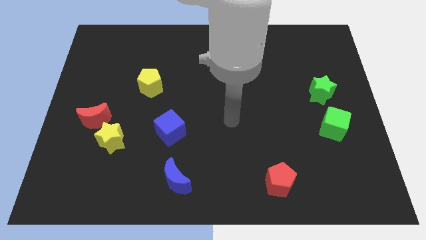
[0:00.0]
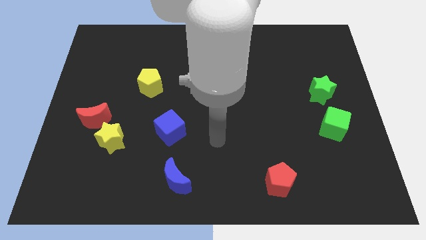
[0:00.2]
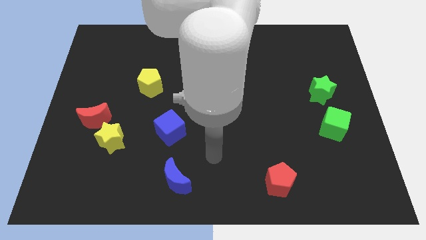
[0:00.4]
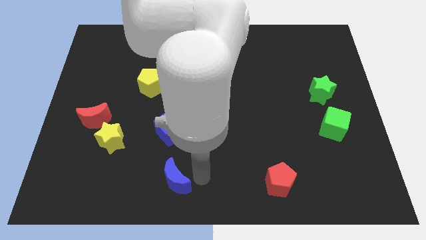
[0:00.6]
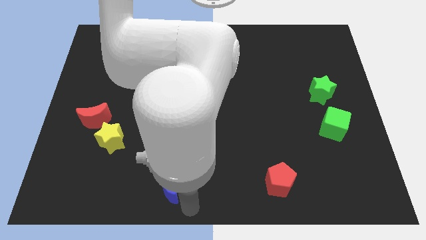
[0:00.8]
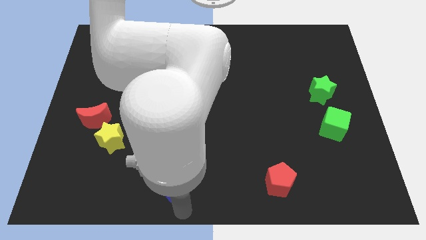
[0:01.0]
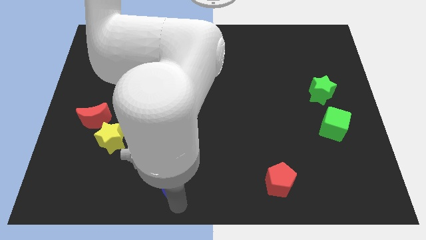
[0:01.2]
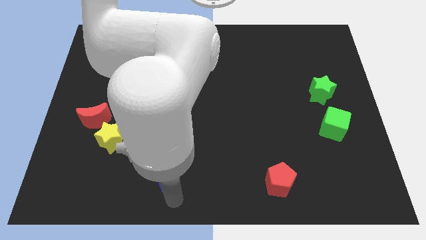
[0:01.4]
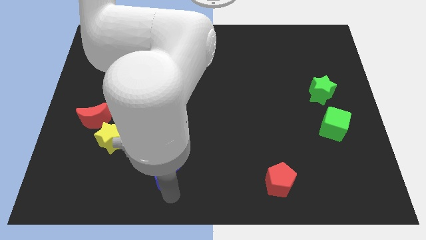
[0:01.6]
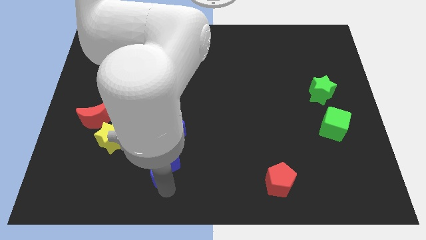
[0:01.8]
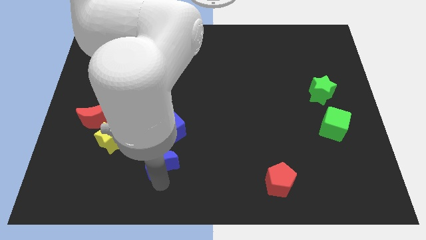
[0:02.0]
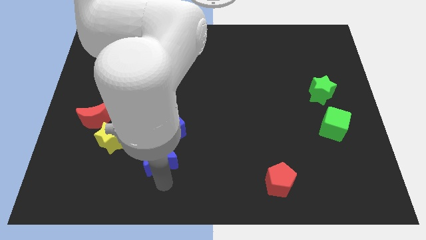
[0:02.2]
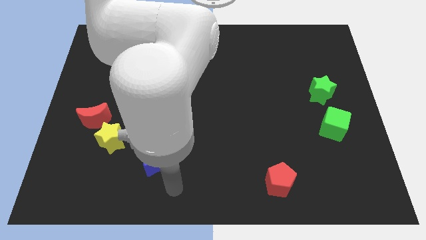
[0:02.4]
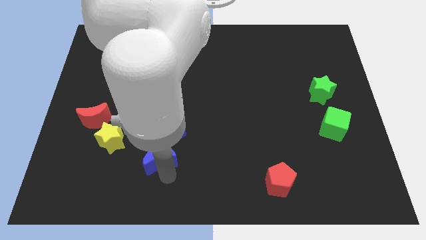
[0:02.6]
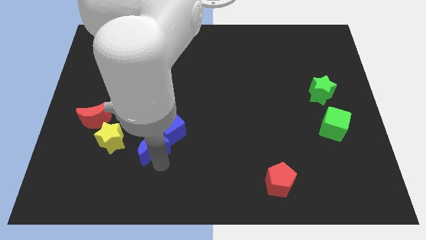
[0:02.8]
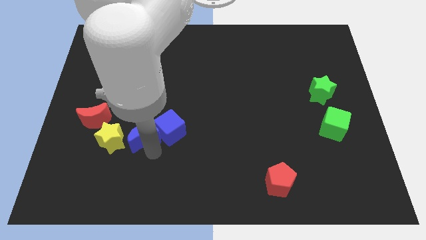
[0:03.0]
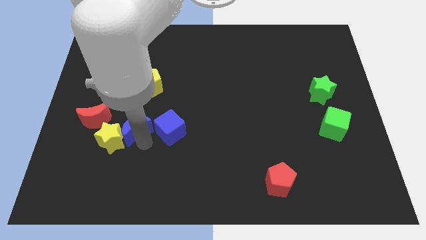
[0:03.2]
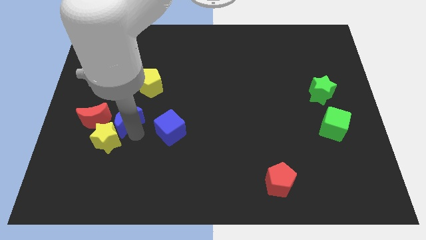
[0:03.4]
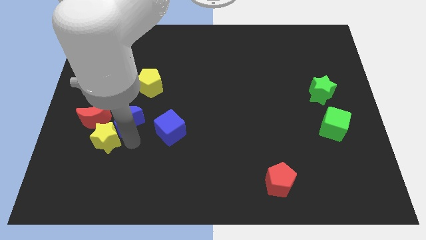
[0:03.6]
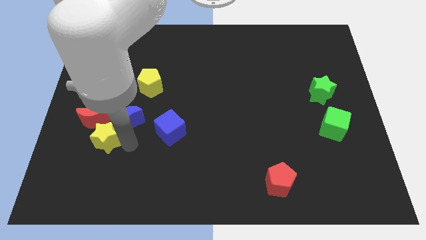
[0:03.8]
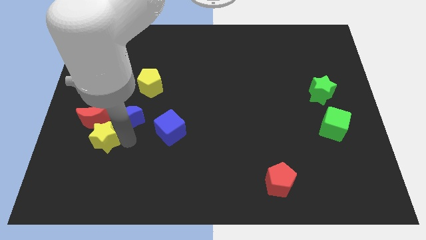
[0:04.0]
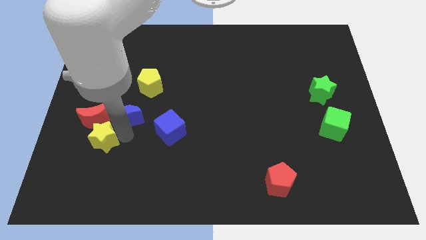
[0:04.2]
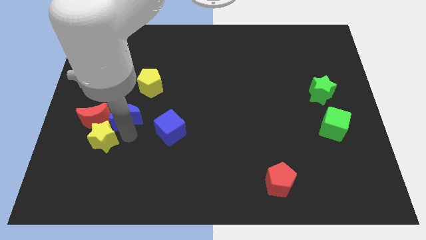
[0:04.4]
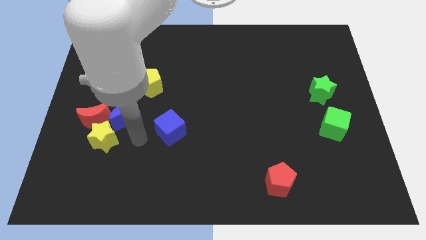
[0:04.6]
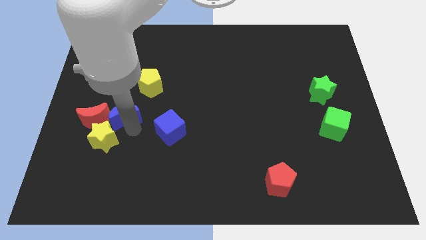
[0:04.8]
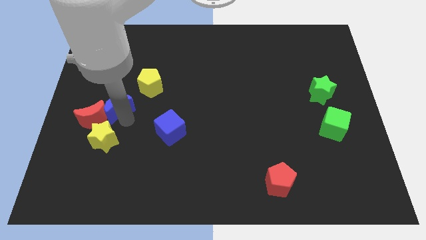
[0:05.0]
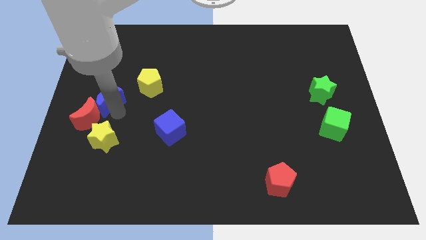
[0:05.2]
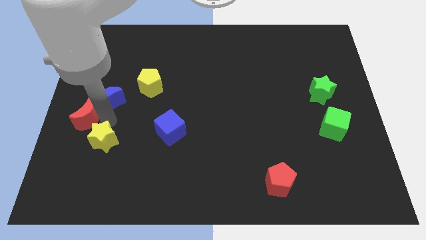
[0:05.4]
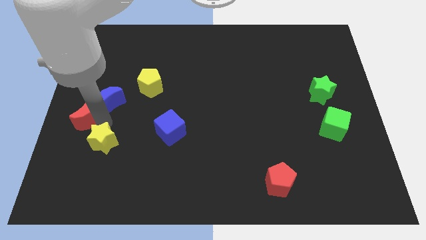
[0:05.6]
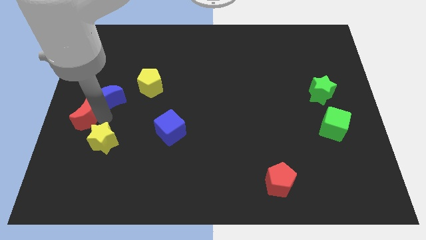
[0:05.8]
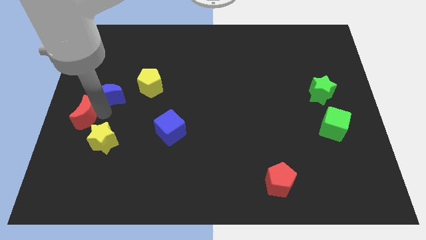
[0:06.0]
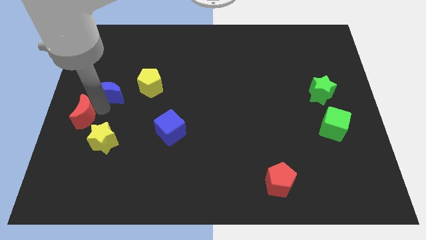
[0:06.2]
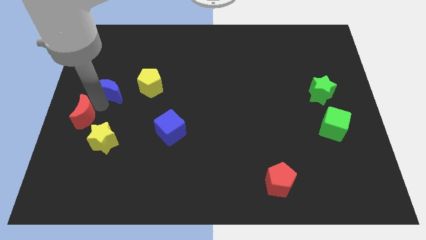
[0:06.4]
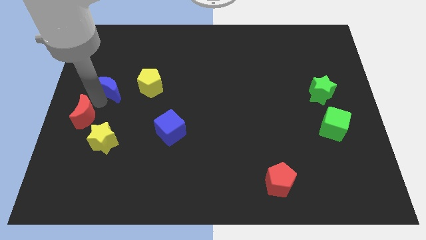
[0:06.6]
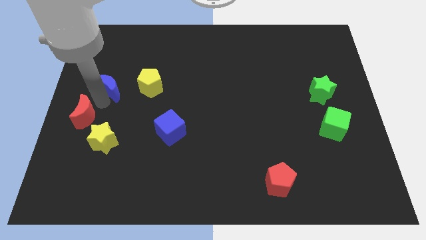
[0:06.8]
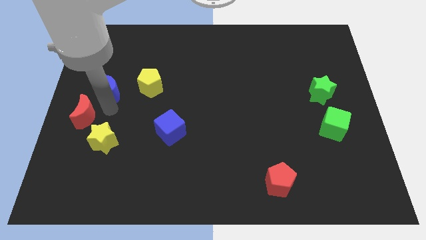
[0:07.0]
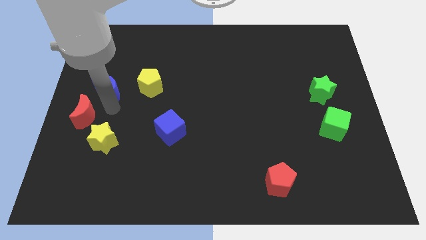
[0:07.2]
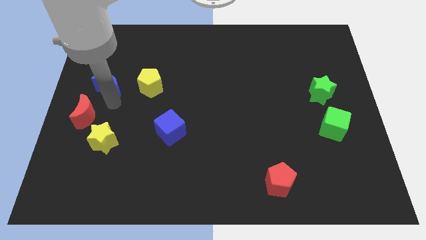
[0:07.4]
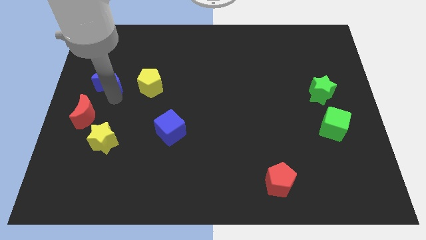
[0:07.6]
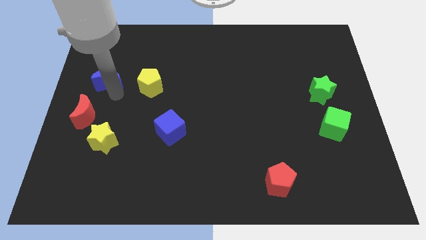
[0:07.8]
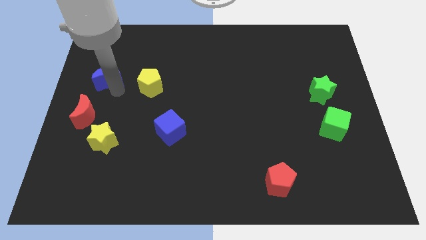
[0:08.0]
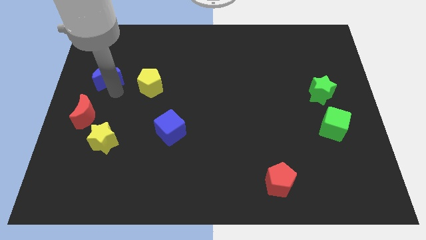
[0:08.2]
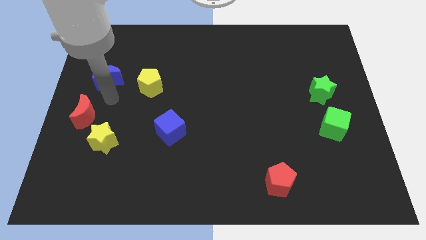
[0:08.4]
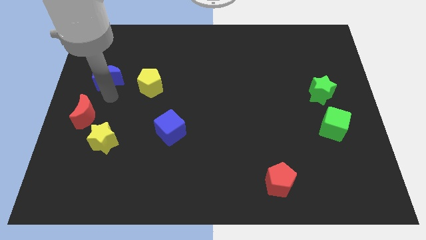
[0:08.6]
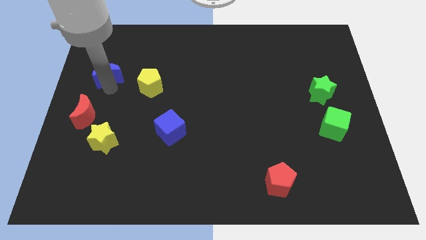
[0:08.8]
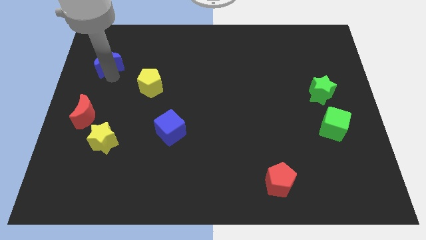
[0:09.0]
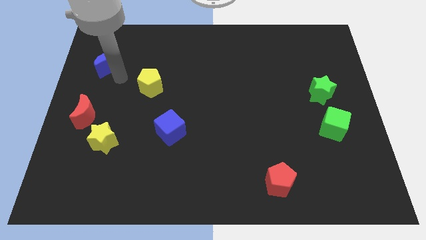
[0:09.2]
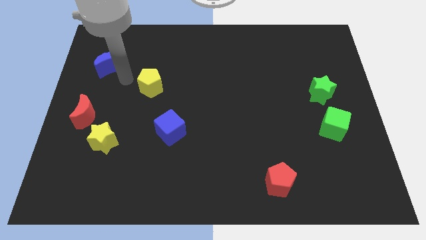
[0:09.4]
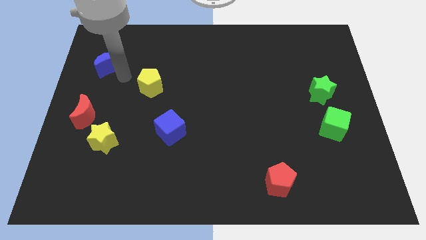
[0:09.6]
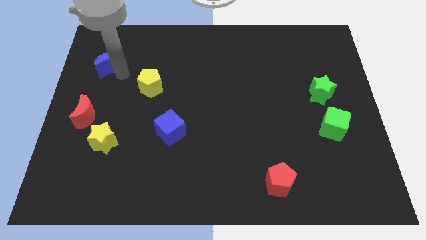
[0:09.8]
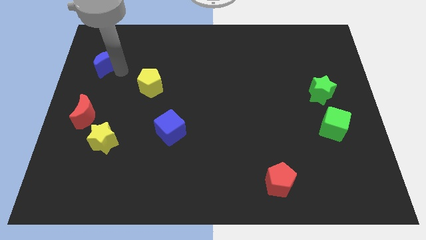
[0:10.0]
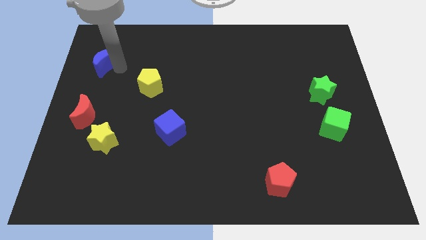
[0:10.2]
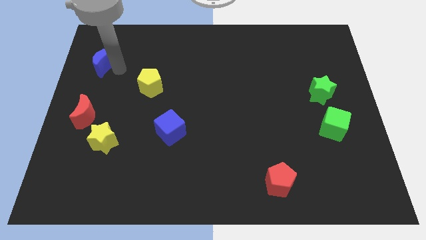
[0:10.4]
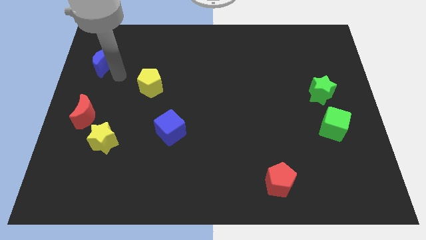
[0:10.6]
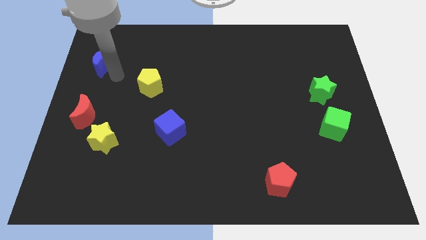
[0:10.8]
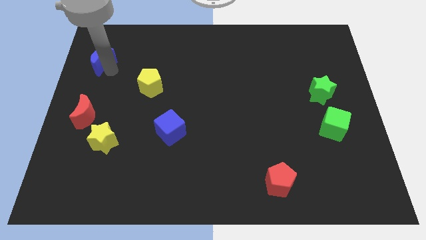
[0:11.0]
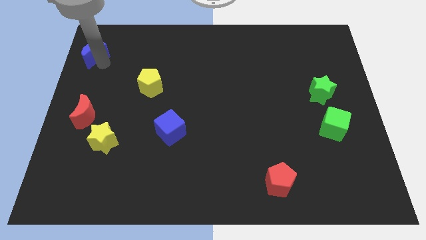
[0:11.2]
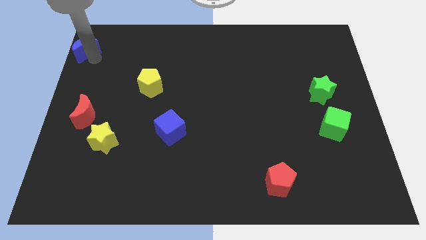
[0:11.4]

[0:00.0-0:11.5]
move the blue moon to the upper left corner

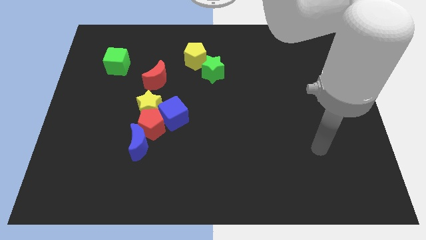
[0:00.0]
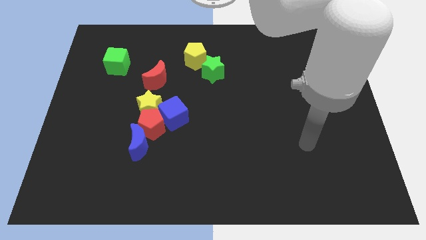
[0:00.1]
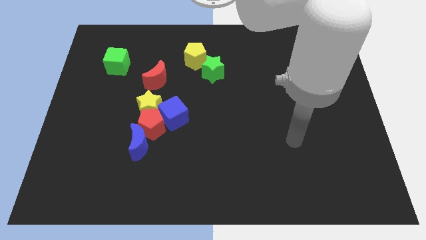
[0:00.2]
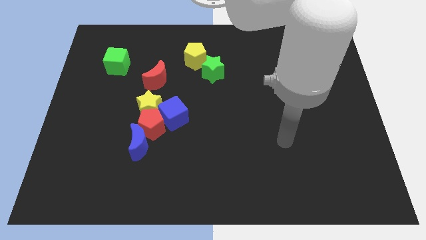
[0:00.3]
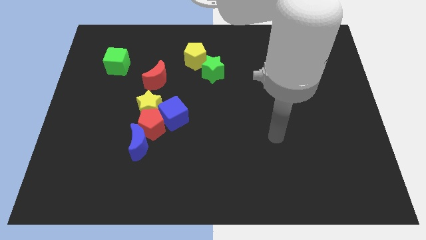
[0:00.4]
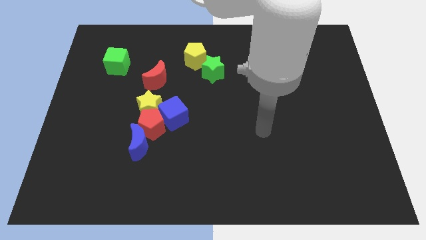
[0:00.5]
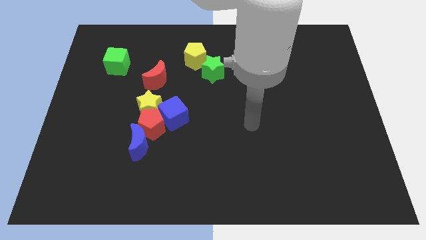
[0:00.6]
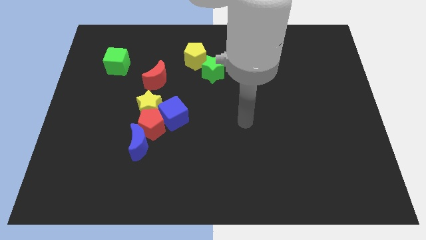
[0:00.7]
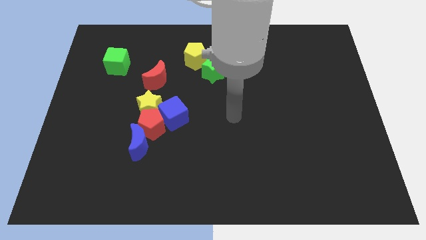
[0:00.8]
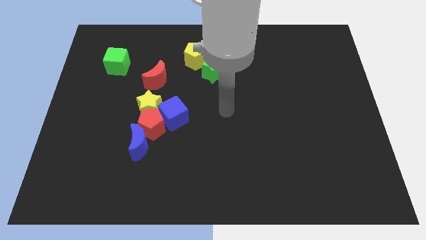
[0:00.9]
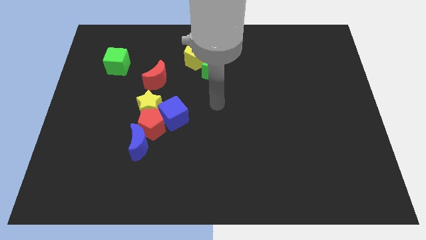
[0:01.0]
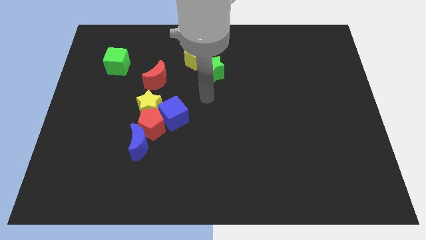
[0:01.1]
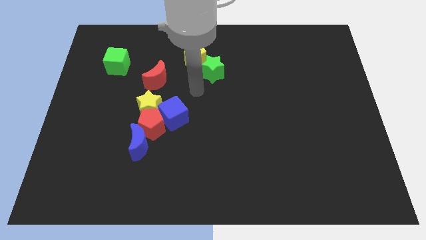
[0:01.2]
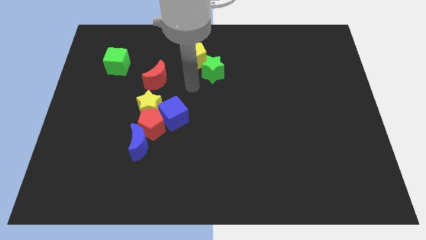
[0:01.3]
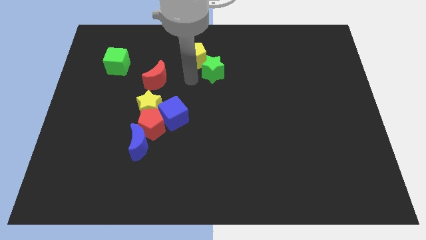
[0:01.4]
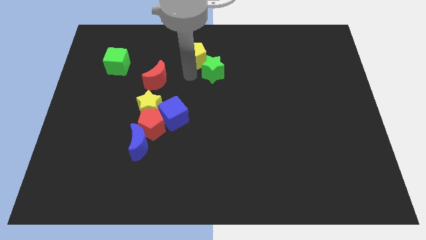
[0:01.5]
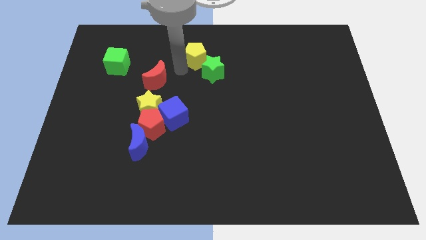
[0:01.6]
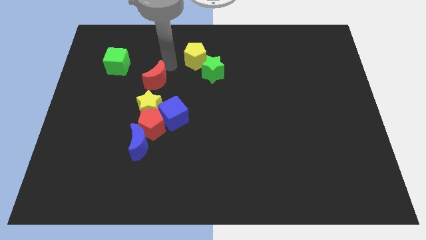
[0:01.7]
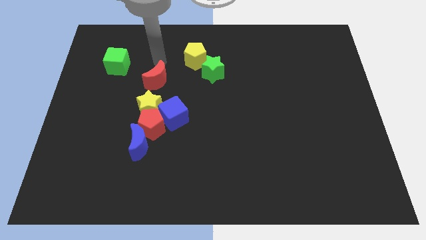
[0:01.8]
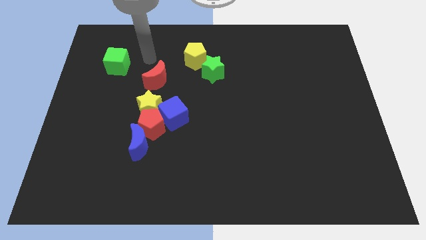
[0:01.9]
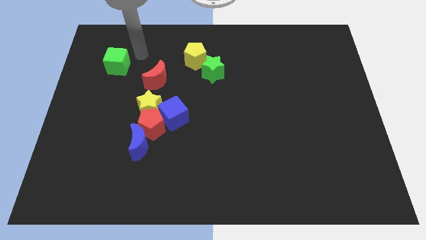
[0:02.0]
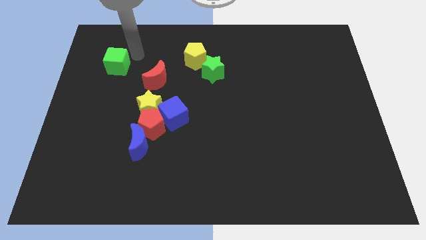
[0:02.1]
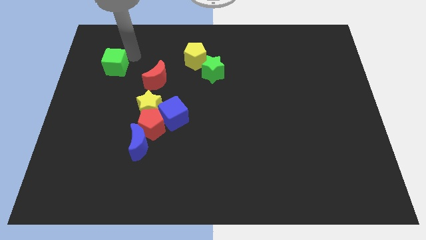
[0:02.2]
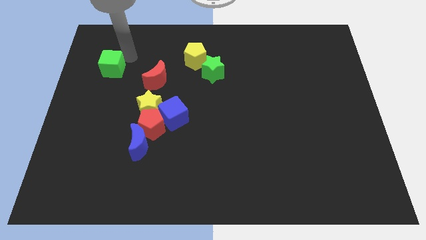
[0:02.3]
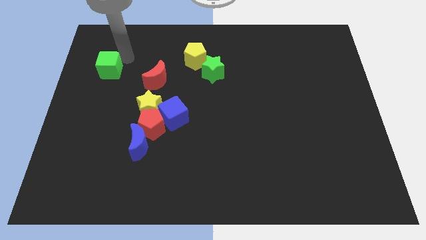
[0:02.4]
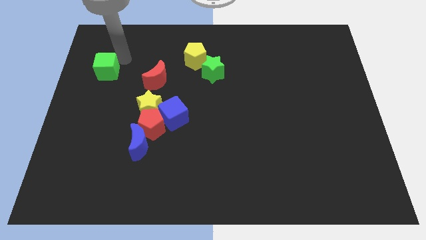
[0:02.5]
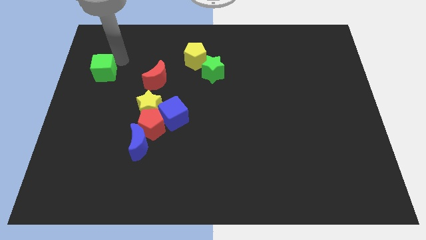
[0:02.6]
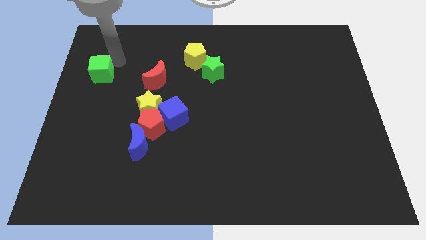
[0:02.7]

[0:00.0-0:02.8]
move the green cube to the center left
